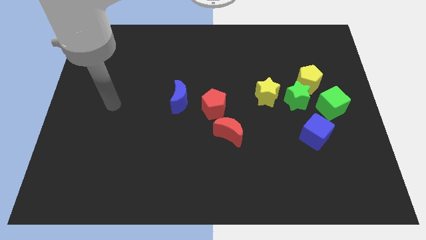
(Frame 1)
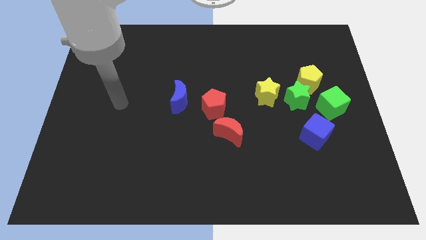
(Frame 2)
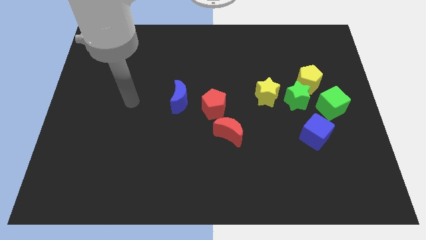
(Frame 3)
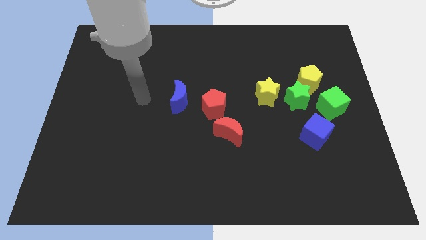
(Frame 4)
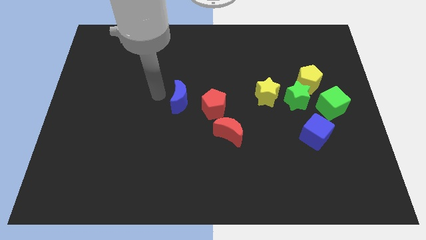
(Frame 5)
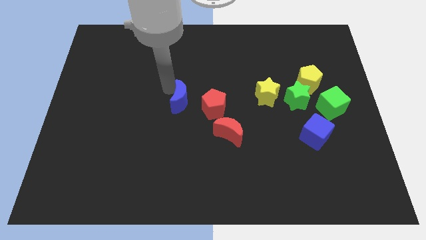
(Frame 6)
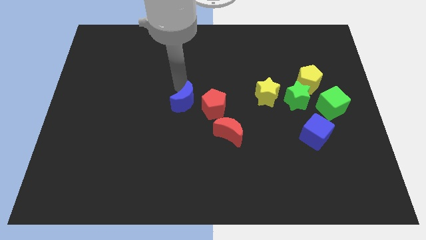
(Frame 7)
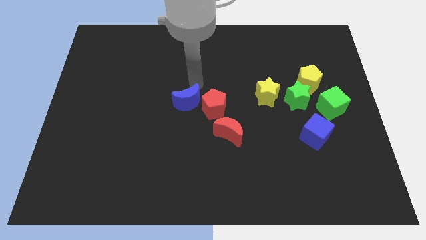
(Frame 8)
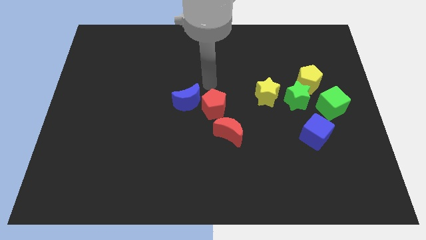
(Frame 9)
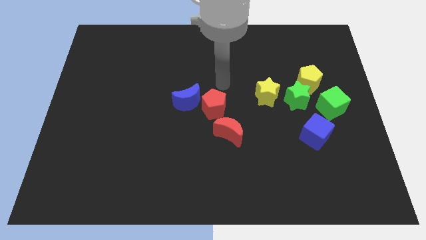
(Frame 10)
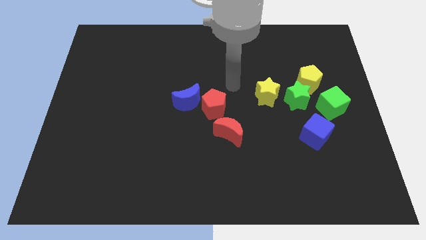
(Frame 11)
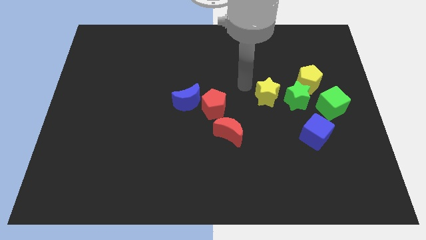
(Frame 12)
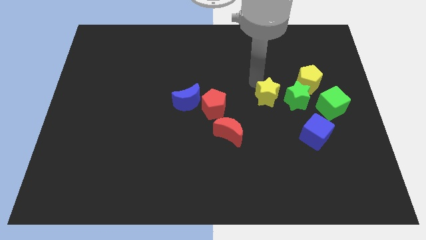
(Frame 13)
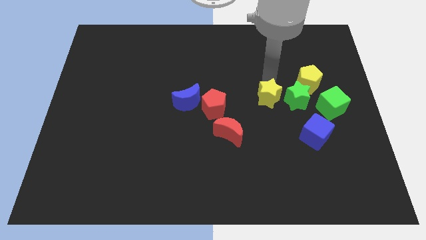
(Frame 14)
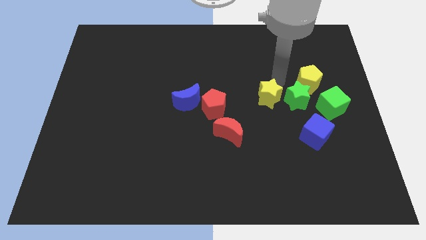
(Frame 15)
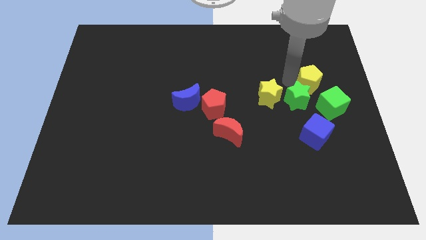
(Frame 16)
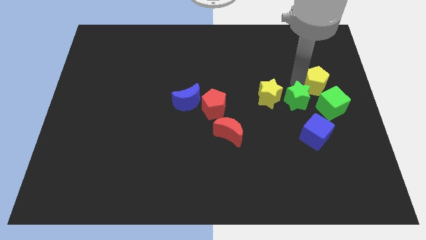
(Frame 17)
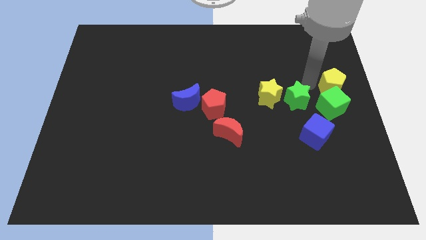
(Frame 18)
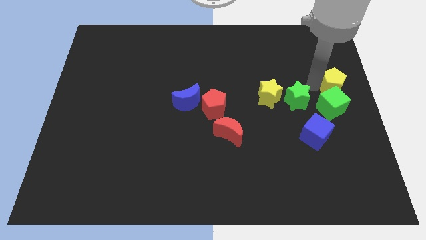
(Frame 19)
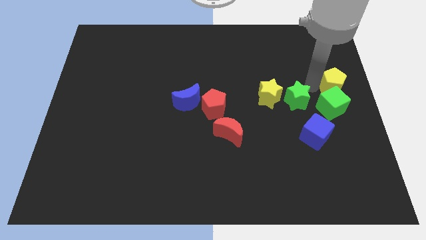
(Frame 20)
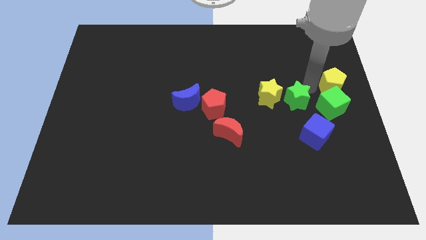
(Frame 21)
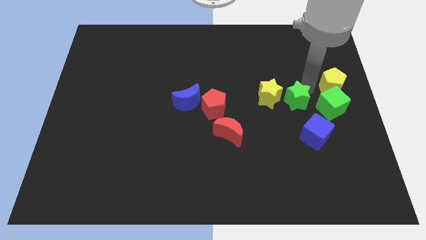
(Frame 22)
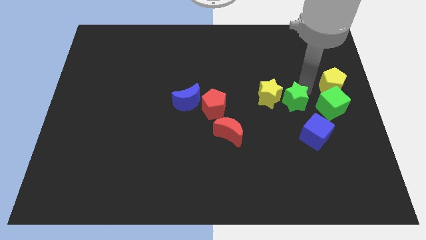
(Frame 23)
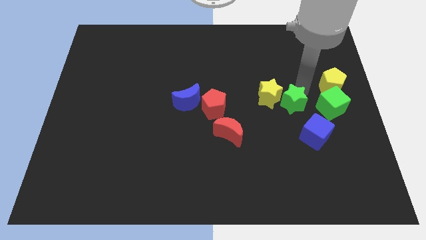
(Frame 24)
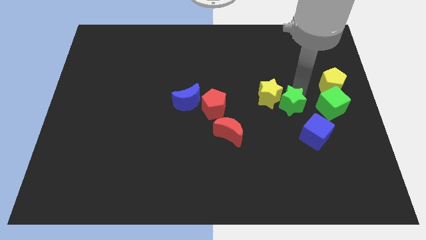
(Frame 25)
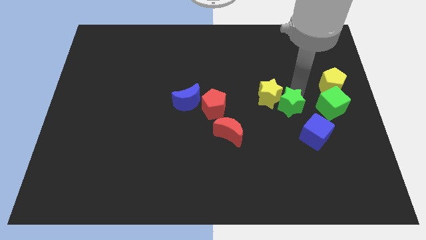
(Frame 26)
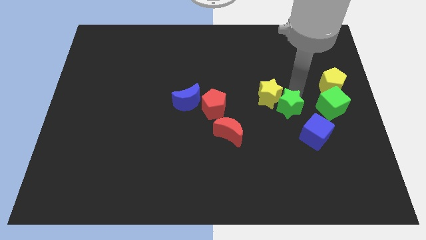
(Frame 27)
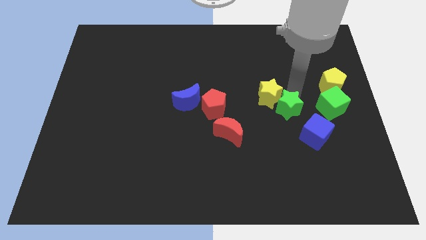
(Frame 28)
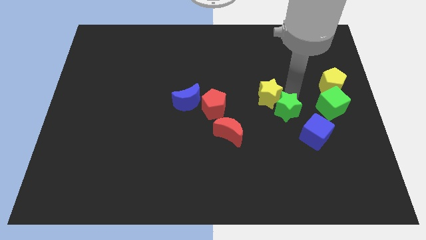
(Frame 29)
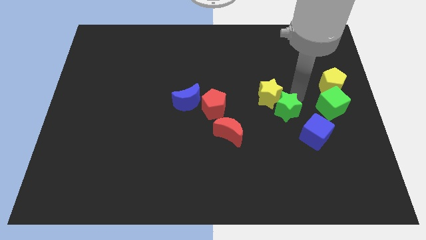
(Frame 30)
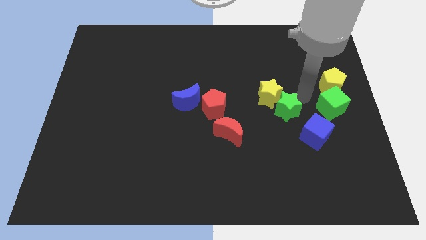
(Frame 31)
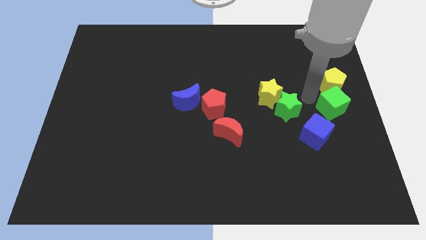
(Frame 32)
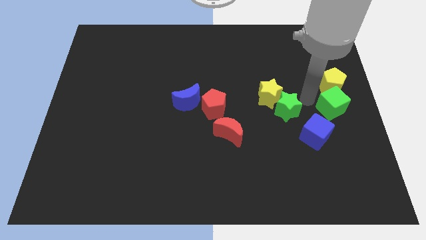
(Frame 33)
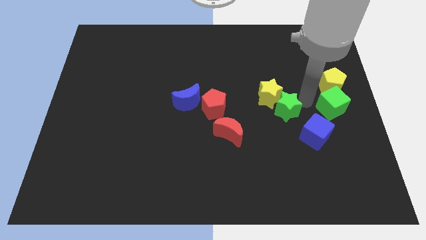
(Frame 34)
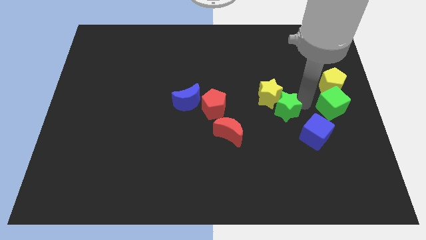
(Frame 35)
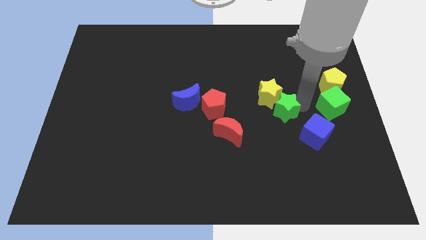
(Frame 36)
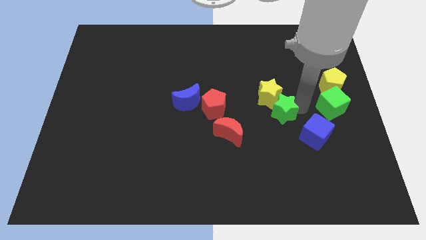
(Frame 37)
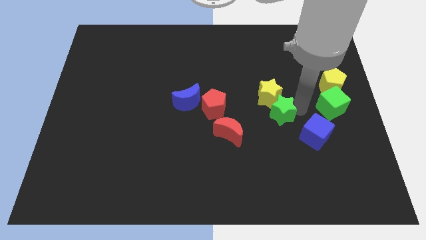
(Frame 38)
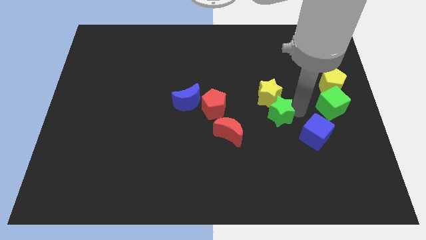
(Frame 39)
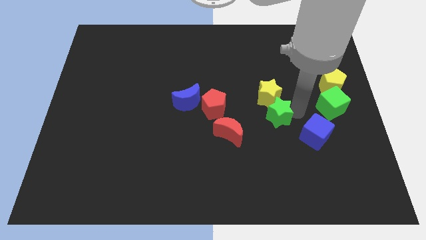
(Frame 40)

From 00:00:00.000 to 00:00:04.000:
pull the green star apart from the group

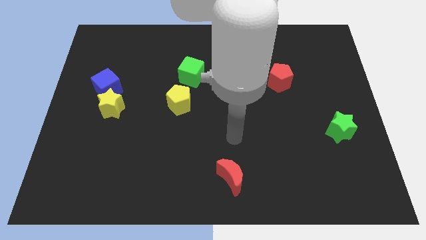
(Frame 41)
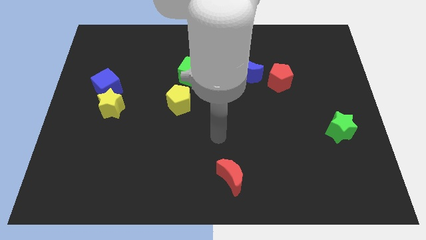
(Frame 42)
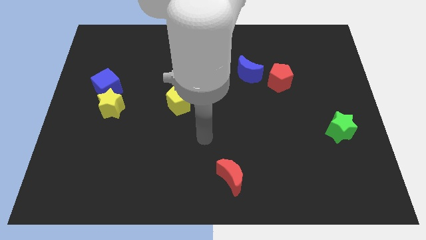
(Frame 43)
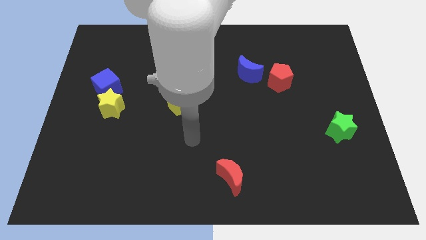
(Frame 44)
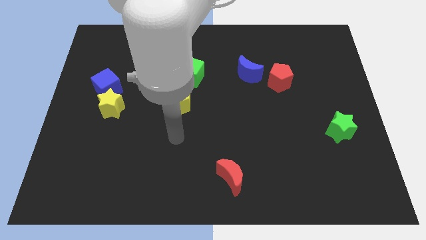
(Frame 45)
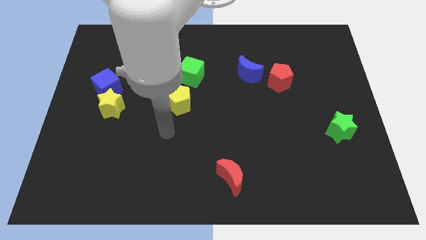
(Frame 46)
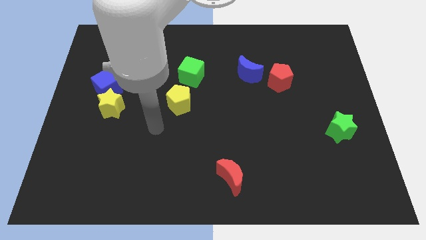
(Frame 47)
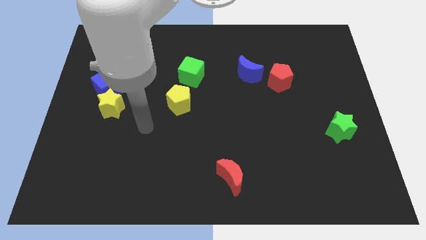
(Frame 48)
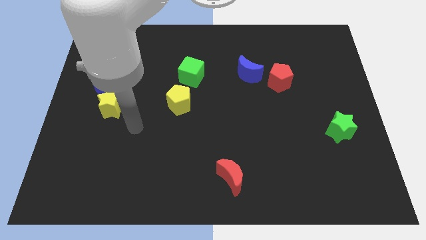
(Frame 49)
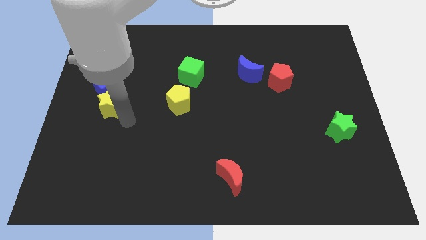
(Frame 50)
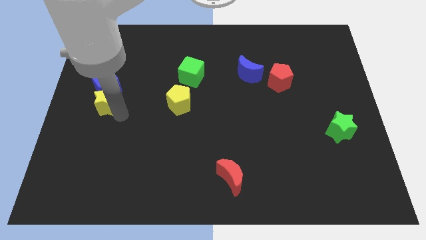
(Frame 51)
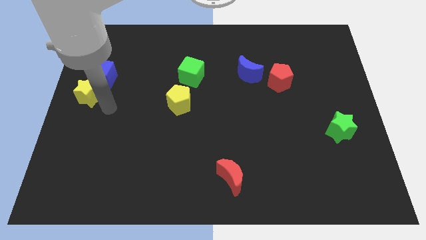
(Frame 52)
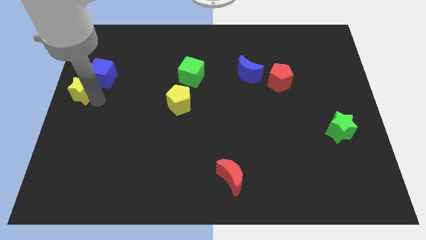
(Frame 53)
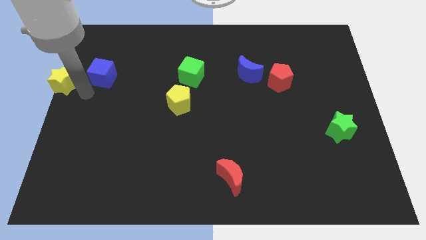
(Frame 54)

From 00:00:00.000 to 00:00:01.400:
separate the blue cube from the yellow star

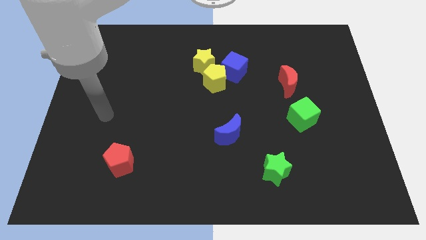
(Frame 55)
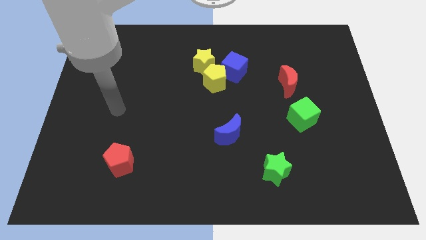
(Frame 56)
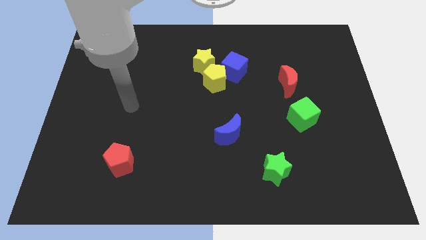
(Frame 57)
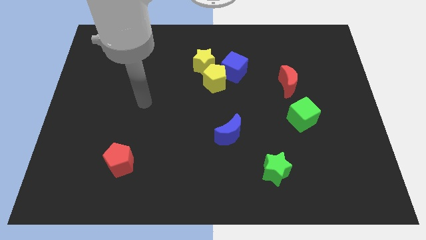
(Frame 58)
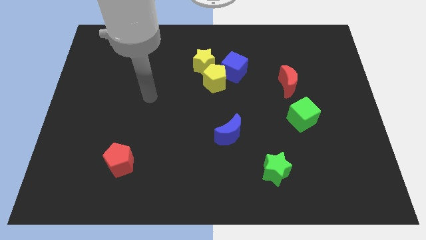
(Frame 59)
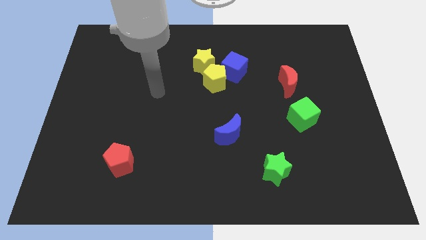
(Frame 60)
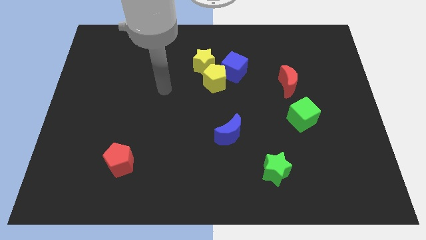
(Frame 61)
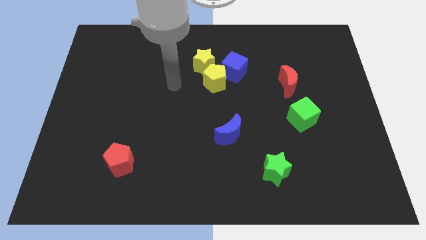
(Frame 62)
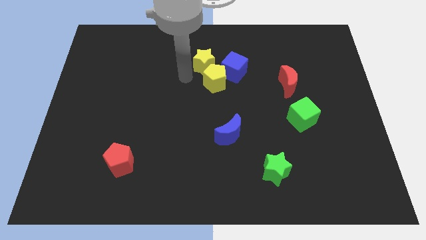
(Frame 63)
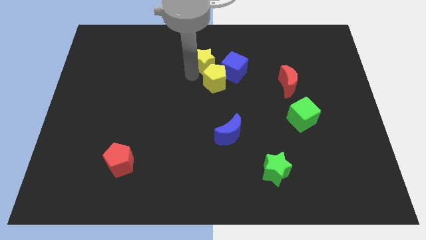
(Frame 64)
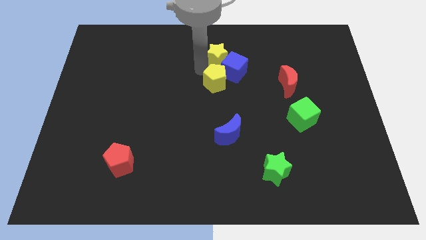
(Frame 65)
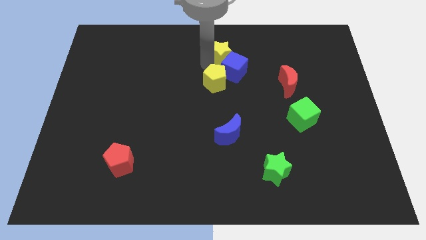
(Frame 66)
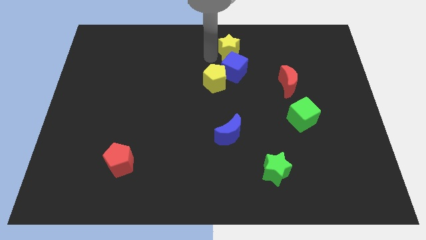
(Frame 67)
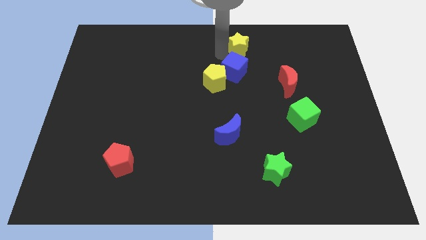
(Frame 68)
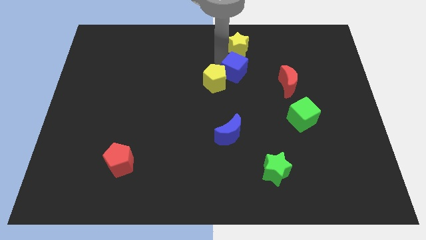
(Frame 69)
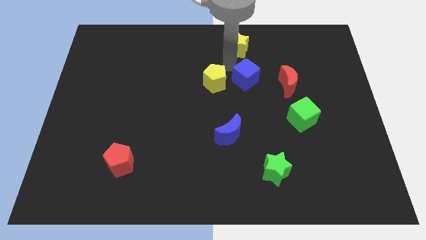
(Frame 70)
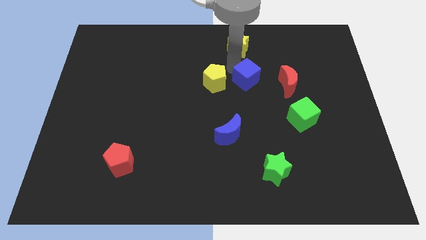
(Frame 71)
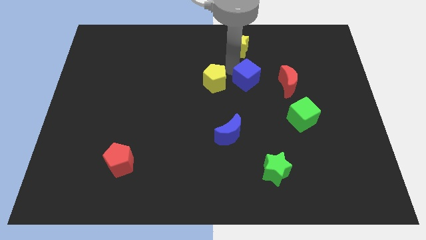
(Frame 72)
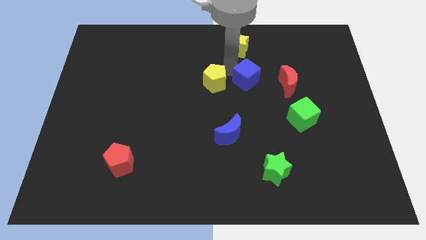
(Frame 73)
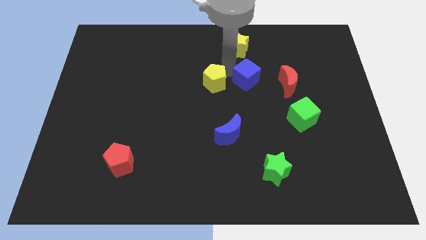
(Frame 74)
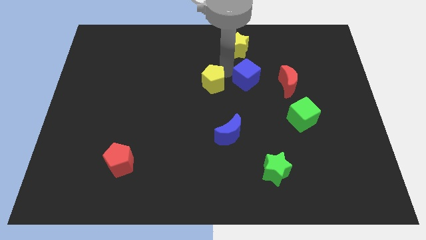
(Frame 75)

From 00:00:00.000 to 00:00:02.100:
separate the yellow pentagon from the blue cube and yellow star

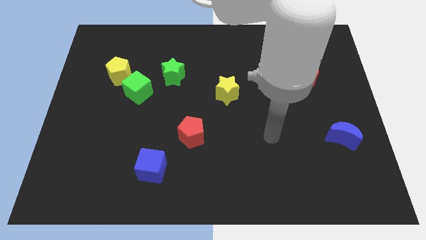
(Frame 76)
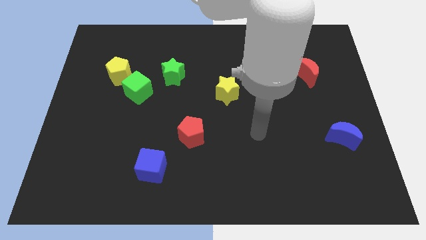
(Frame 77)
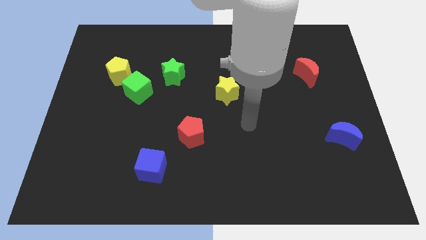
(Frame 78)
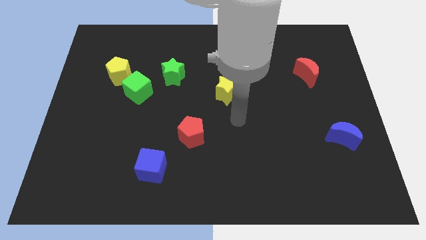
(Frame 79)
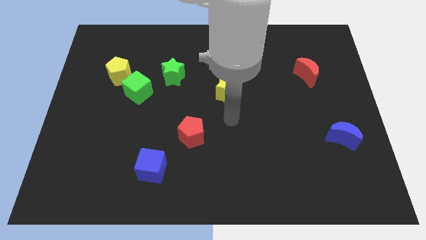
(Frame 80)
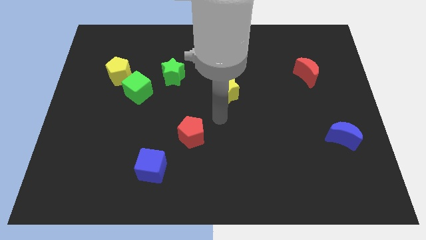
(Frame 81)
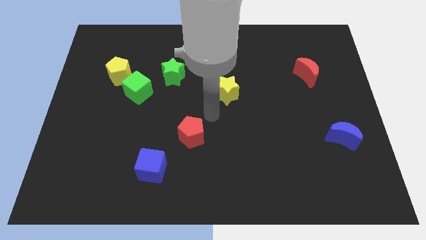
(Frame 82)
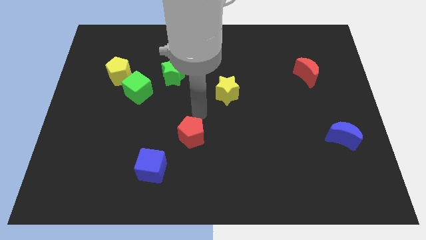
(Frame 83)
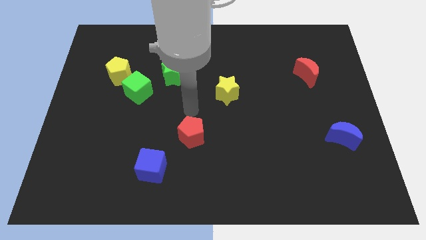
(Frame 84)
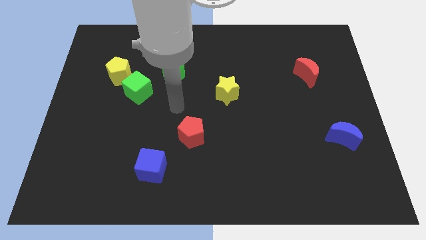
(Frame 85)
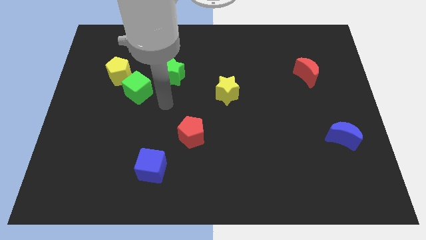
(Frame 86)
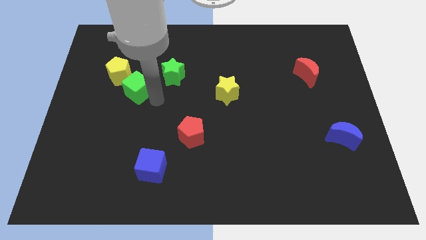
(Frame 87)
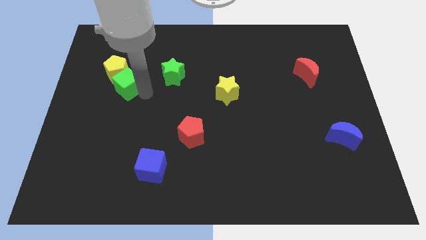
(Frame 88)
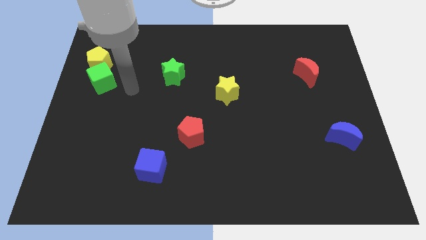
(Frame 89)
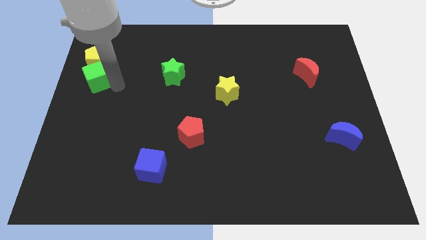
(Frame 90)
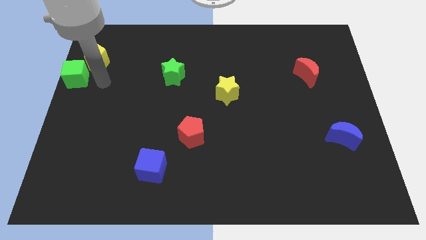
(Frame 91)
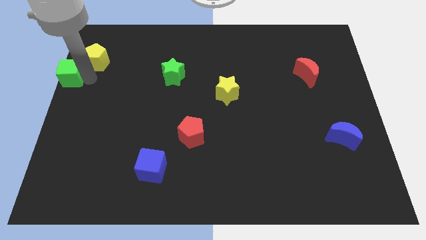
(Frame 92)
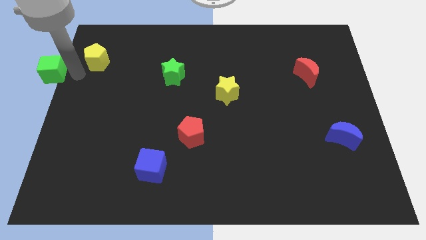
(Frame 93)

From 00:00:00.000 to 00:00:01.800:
pull the yellow pentagon apart from the green cube
